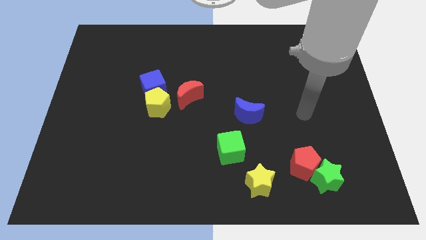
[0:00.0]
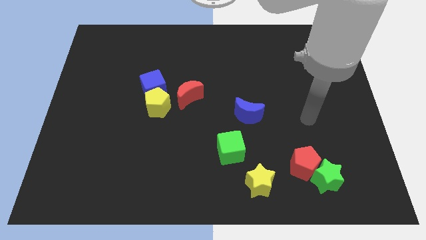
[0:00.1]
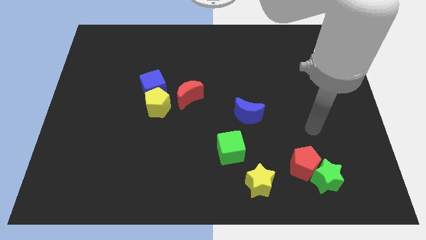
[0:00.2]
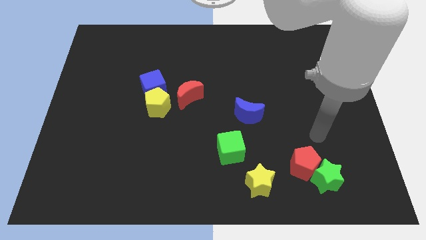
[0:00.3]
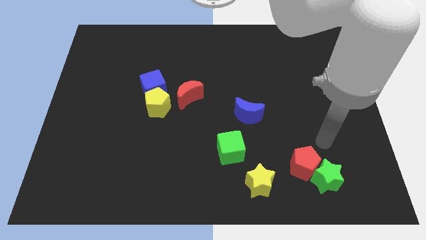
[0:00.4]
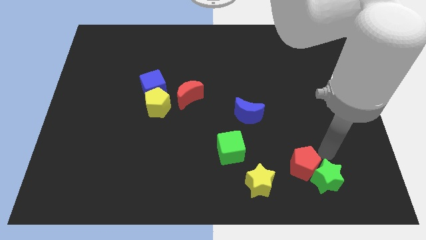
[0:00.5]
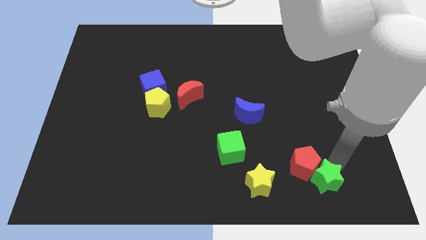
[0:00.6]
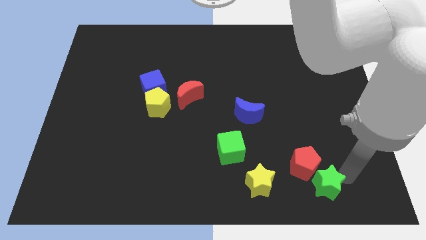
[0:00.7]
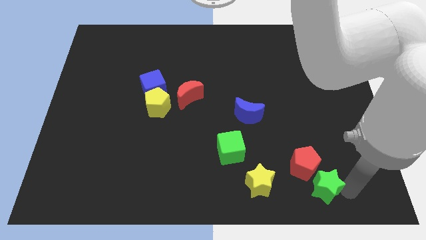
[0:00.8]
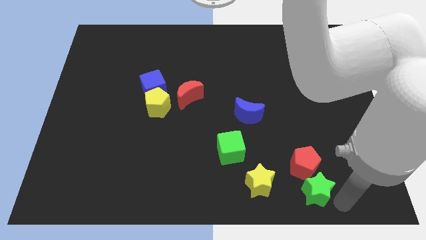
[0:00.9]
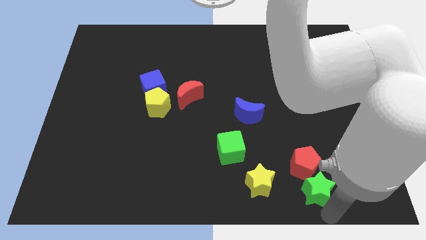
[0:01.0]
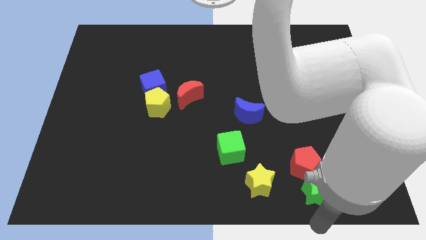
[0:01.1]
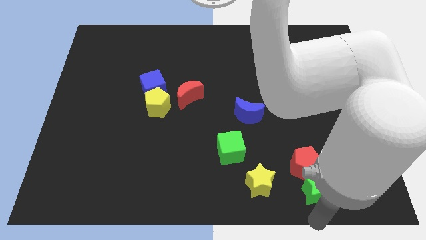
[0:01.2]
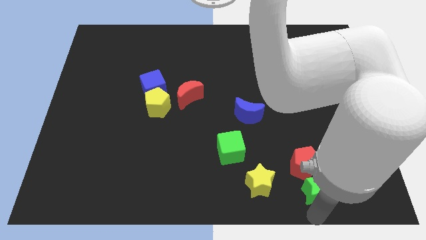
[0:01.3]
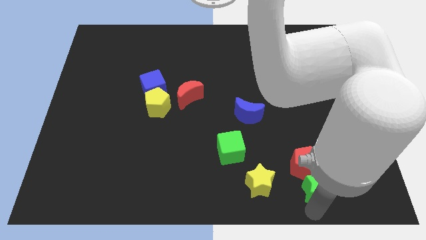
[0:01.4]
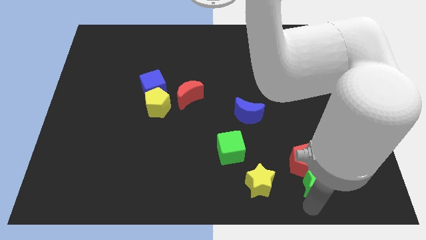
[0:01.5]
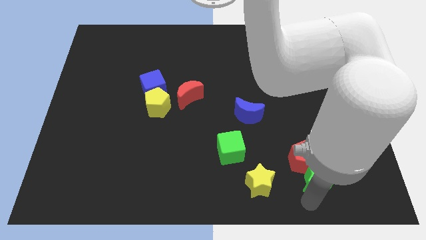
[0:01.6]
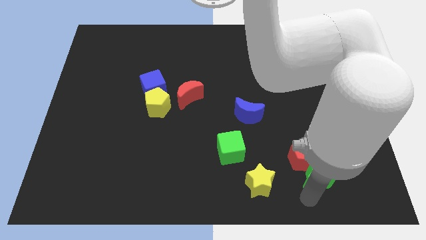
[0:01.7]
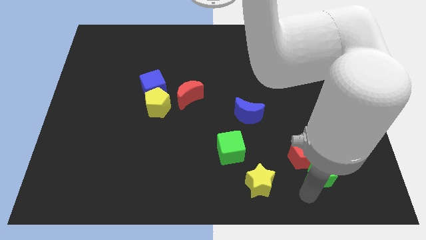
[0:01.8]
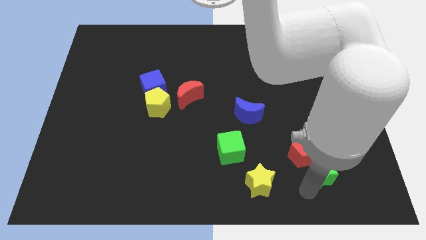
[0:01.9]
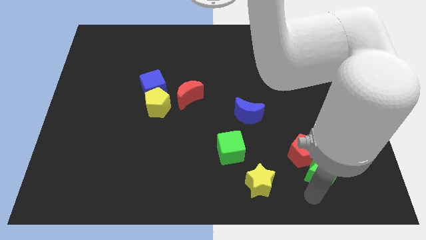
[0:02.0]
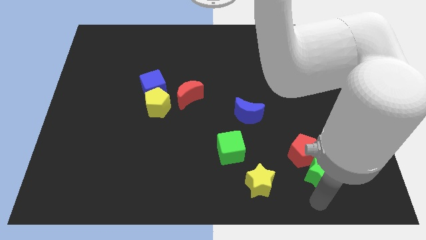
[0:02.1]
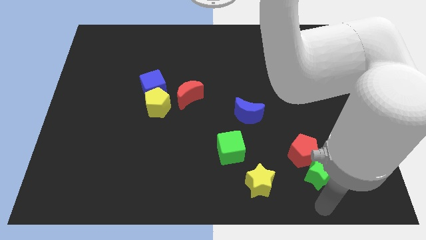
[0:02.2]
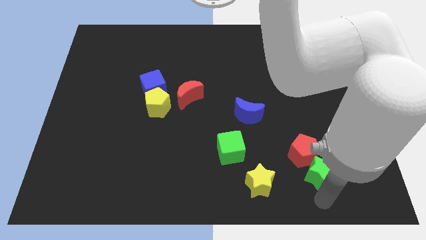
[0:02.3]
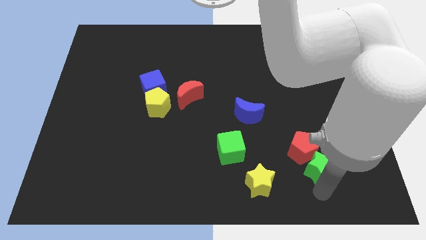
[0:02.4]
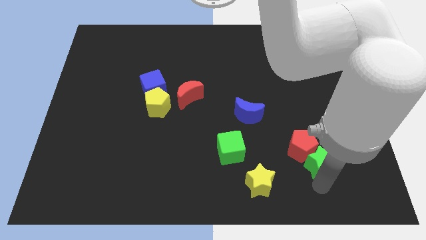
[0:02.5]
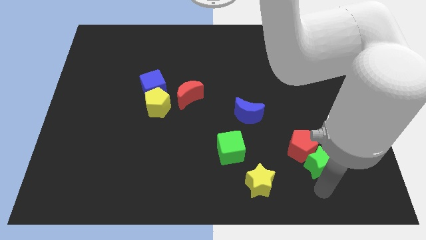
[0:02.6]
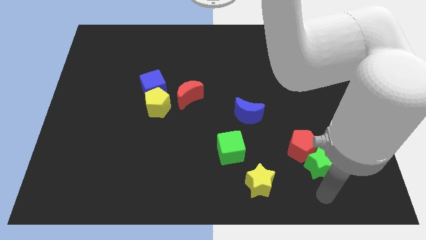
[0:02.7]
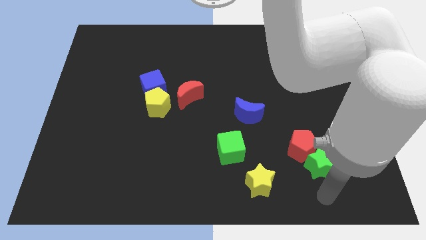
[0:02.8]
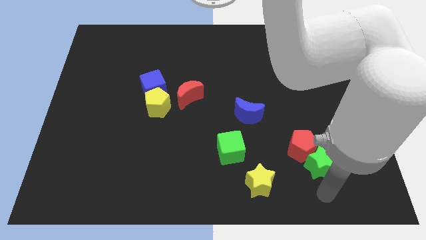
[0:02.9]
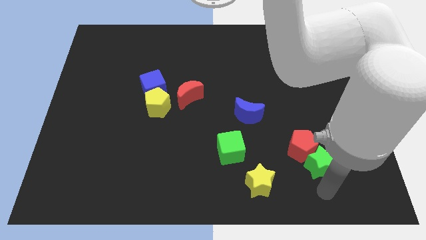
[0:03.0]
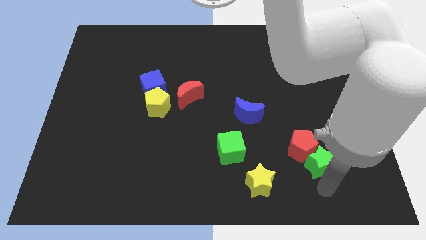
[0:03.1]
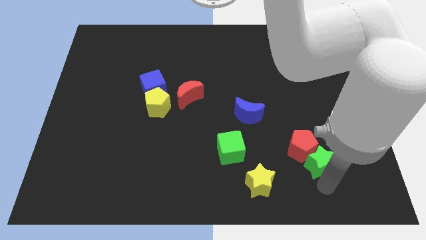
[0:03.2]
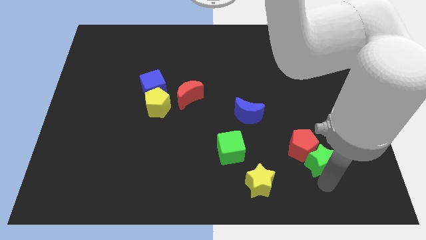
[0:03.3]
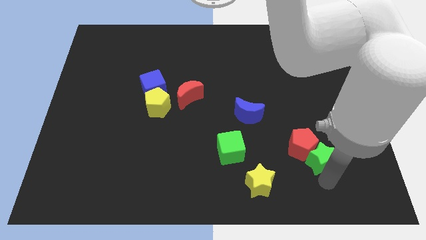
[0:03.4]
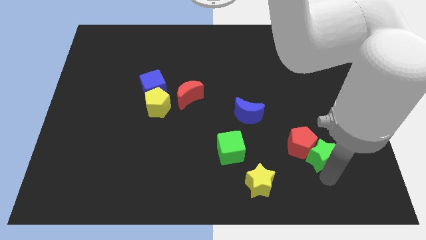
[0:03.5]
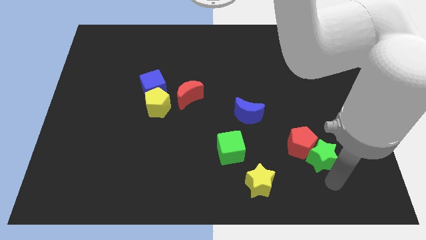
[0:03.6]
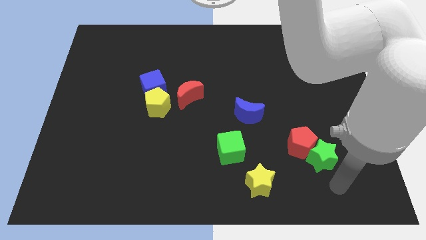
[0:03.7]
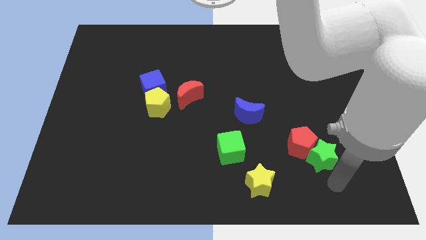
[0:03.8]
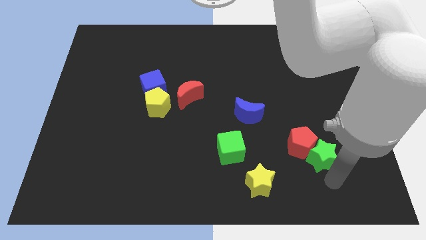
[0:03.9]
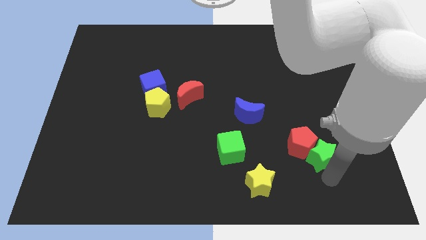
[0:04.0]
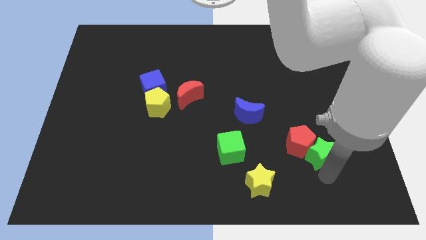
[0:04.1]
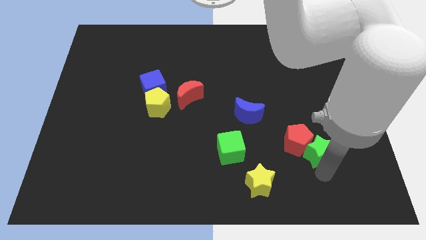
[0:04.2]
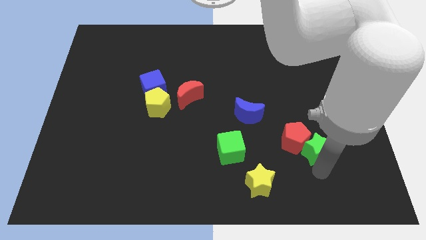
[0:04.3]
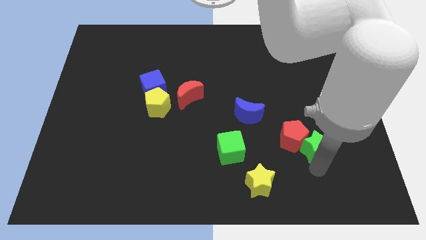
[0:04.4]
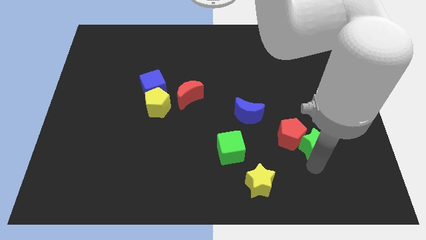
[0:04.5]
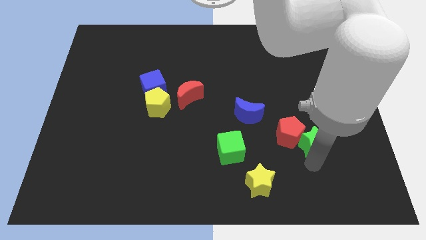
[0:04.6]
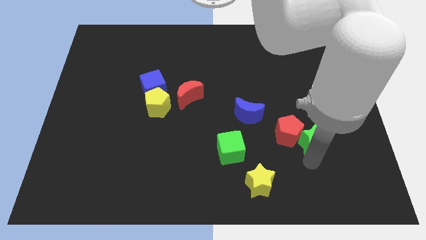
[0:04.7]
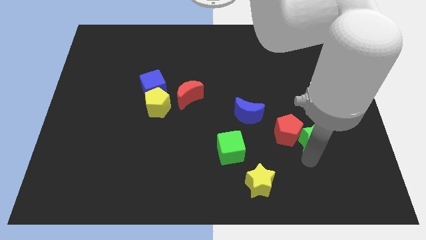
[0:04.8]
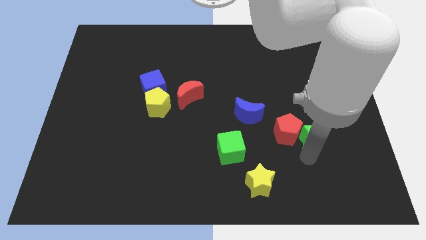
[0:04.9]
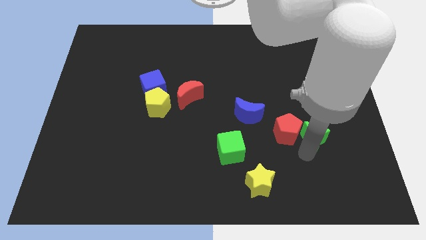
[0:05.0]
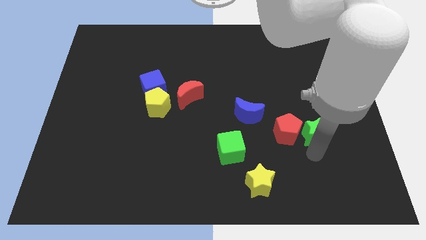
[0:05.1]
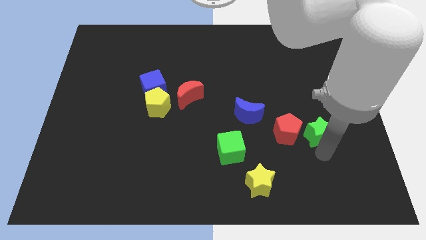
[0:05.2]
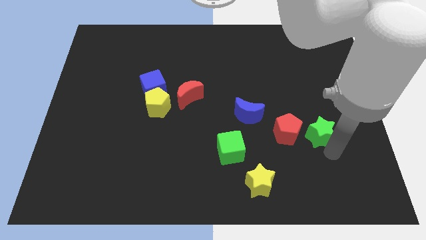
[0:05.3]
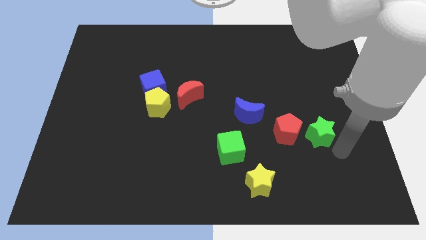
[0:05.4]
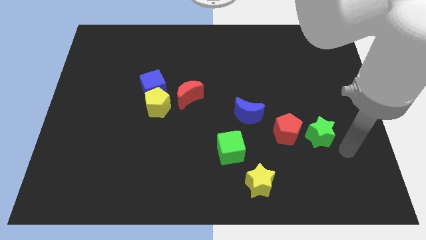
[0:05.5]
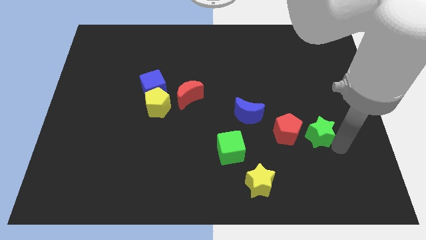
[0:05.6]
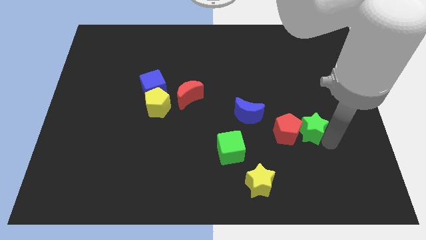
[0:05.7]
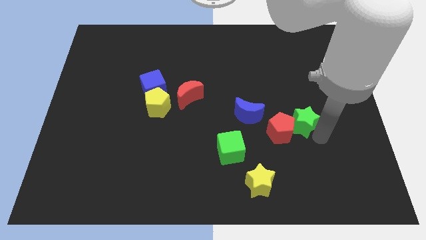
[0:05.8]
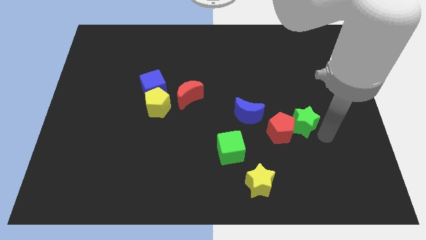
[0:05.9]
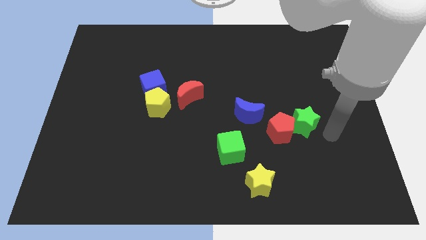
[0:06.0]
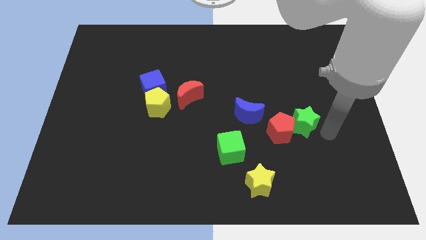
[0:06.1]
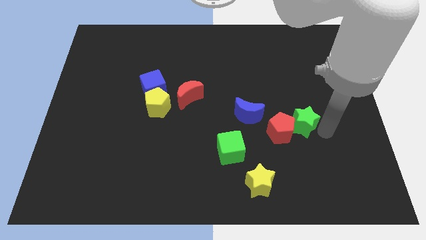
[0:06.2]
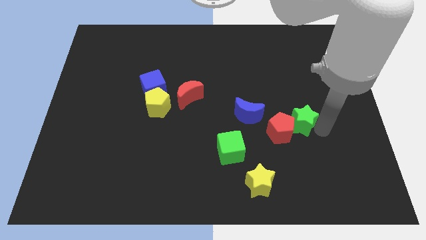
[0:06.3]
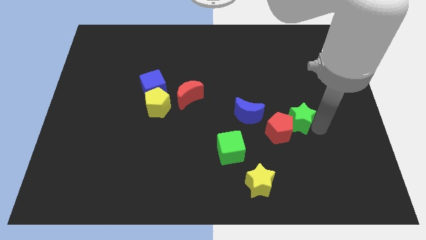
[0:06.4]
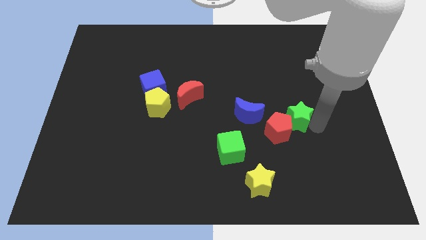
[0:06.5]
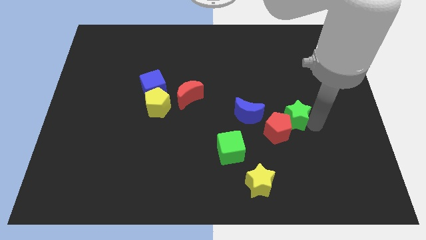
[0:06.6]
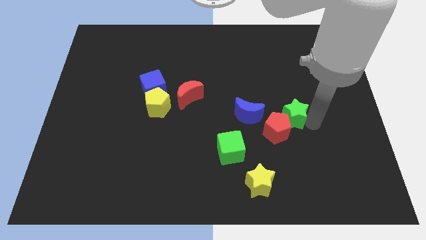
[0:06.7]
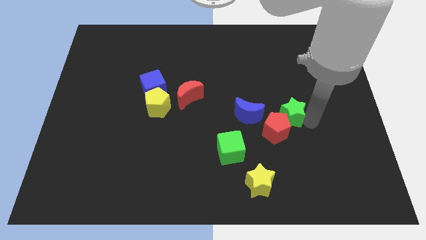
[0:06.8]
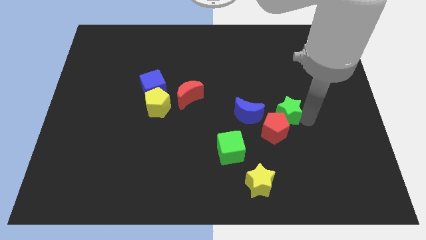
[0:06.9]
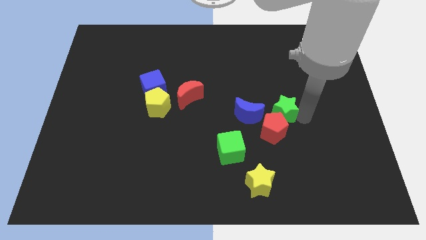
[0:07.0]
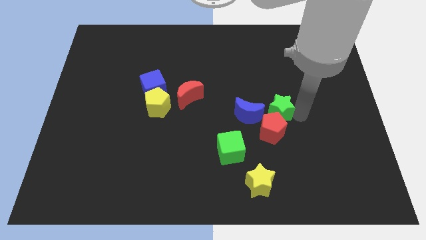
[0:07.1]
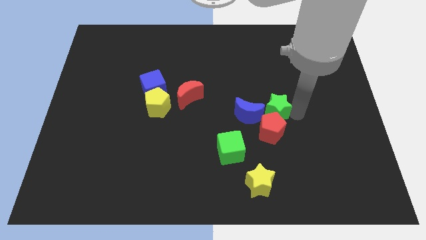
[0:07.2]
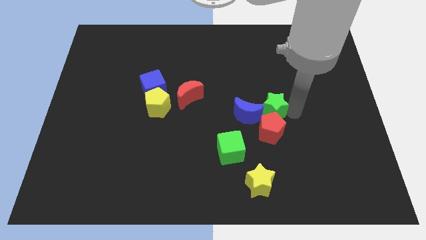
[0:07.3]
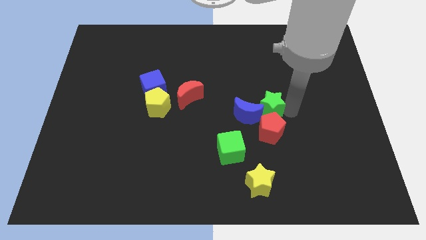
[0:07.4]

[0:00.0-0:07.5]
slide the green star to the blue moon
